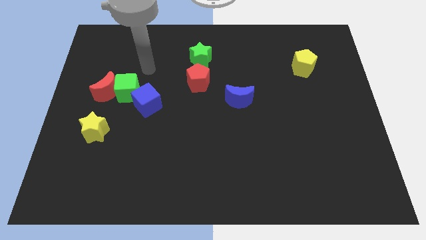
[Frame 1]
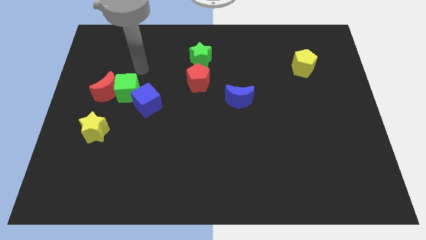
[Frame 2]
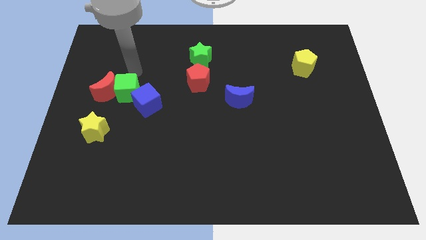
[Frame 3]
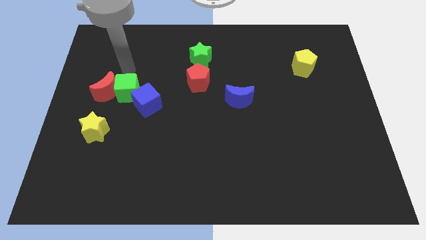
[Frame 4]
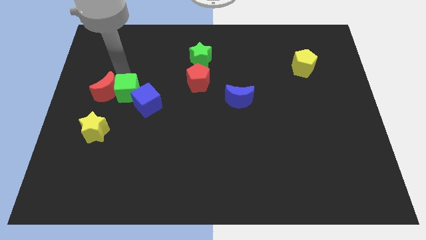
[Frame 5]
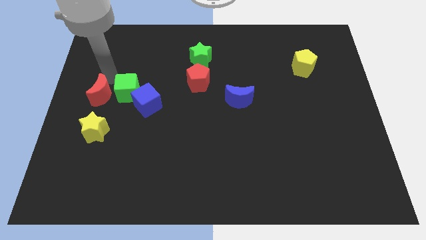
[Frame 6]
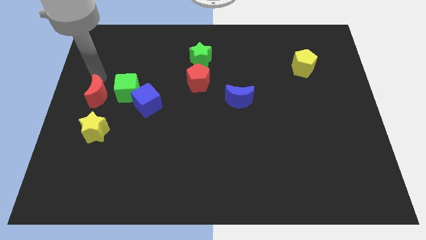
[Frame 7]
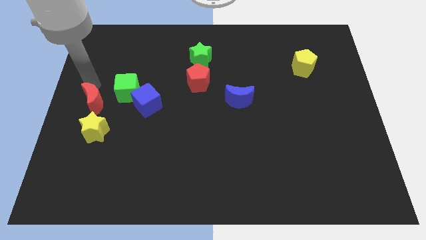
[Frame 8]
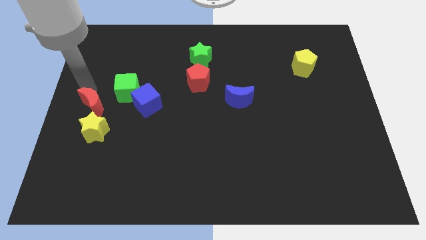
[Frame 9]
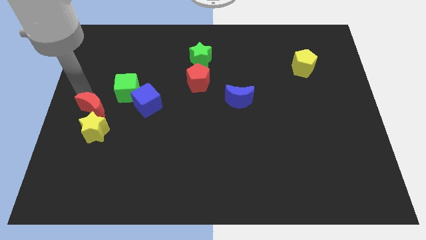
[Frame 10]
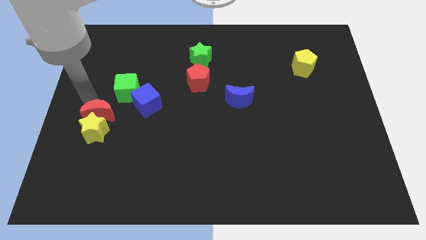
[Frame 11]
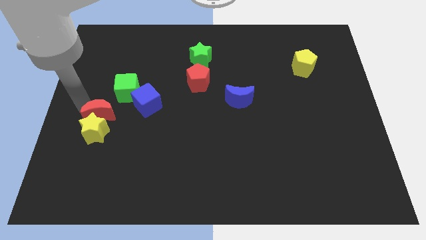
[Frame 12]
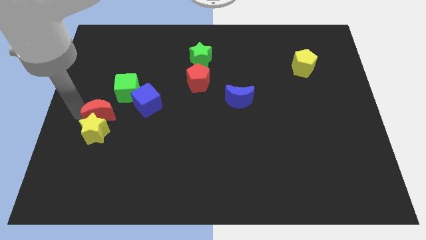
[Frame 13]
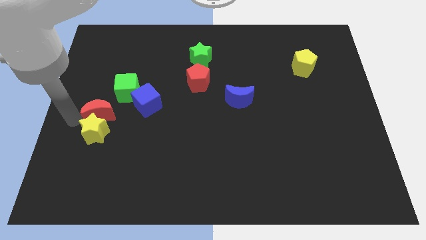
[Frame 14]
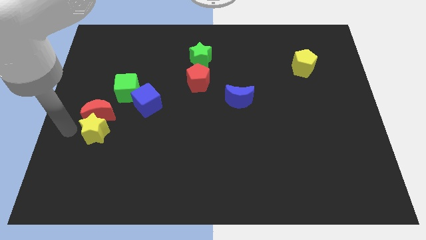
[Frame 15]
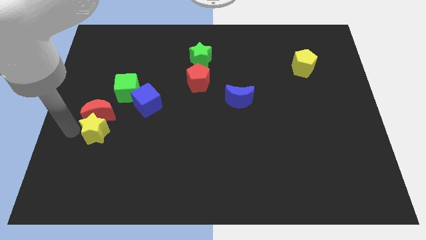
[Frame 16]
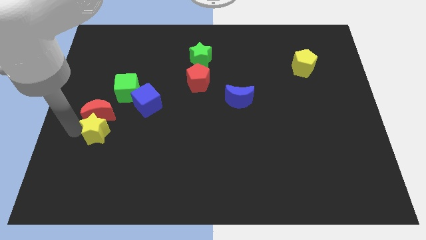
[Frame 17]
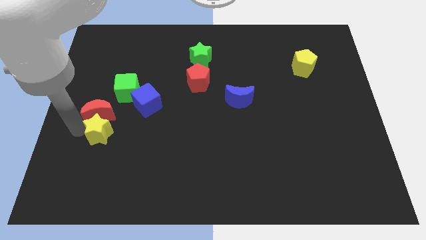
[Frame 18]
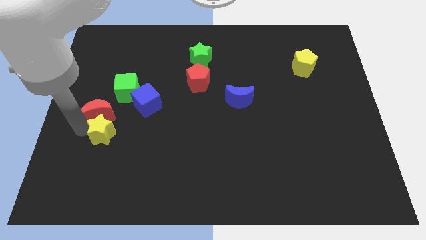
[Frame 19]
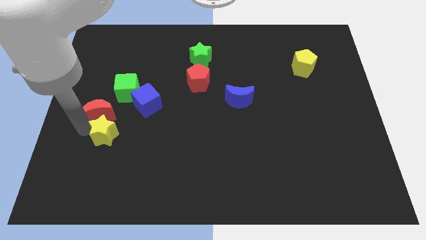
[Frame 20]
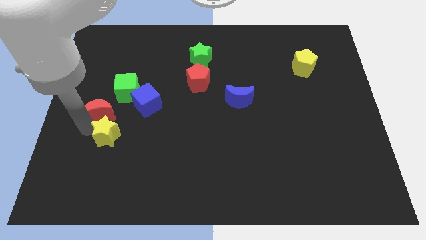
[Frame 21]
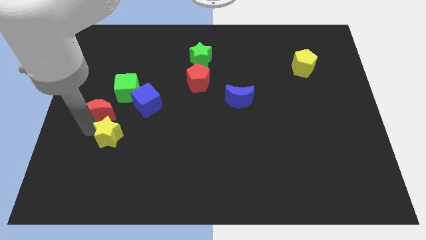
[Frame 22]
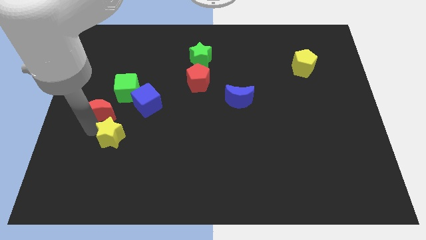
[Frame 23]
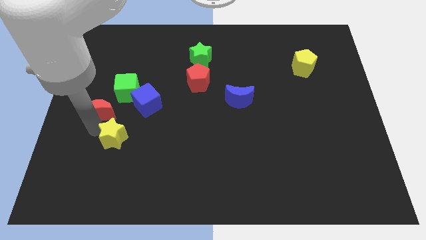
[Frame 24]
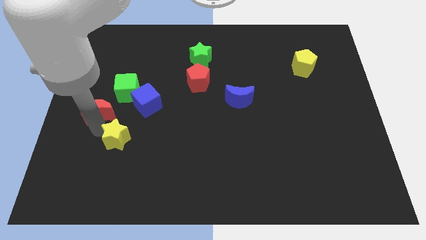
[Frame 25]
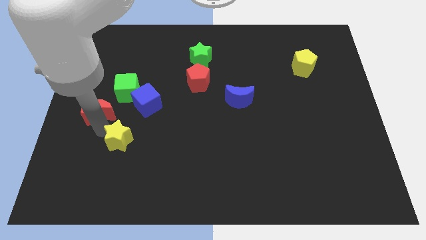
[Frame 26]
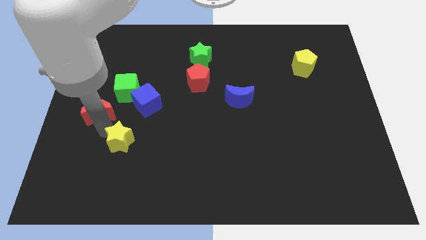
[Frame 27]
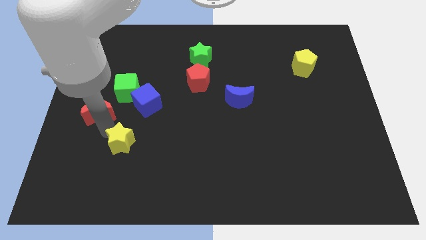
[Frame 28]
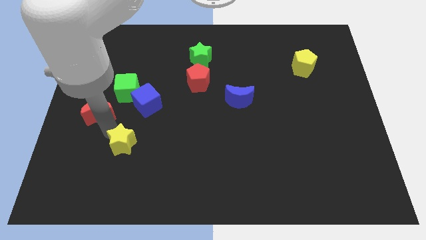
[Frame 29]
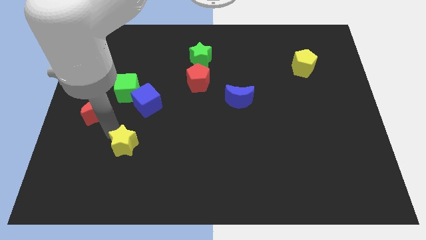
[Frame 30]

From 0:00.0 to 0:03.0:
slide the yellow star slightly to the right

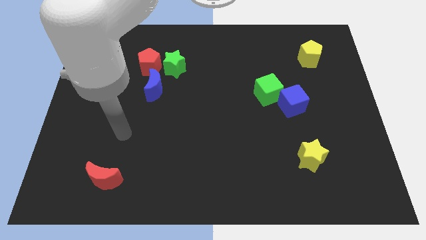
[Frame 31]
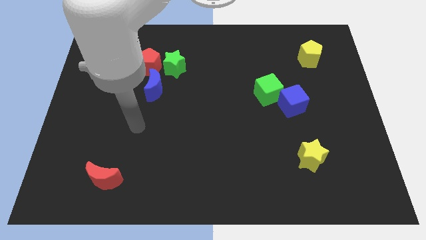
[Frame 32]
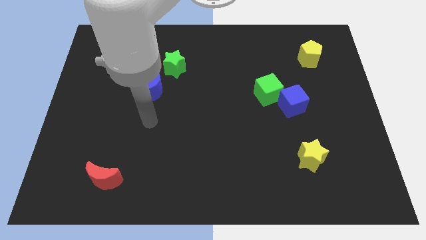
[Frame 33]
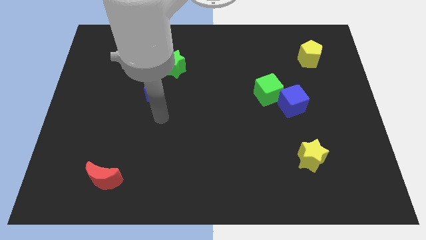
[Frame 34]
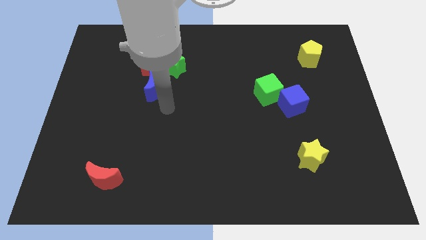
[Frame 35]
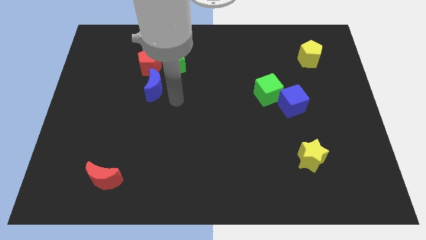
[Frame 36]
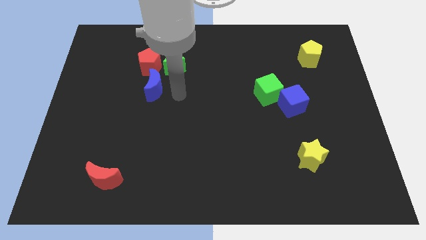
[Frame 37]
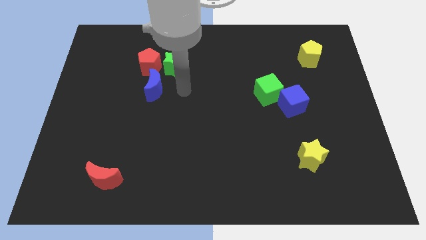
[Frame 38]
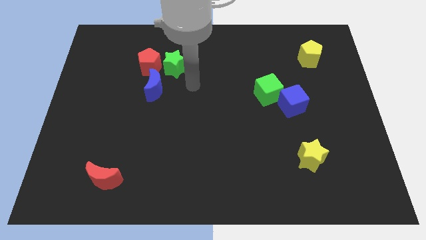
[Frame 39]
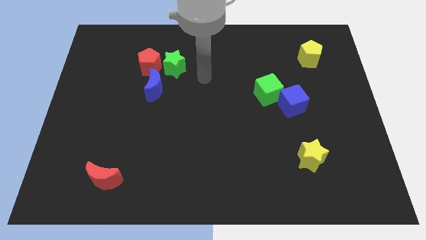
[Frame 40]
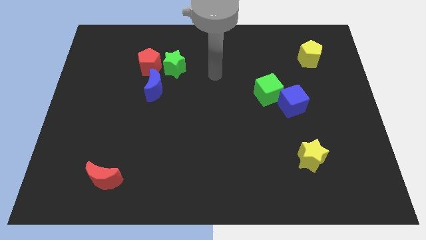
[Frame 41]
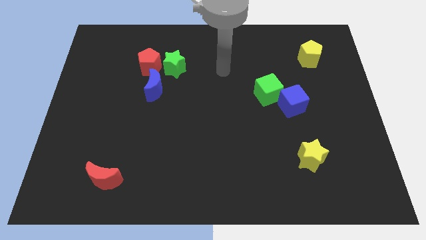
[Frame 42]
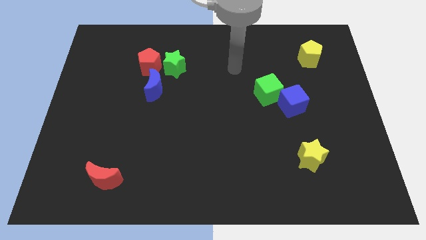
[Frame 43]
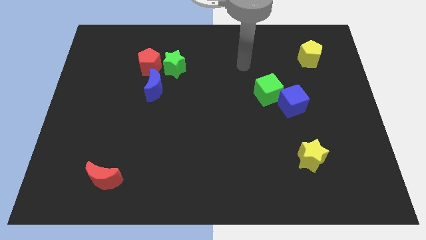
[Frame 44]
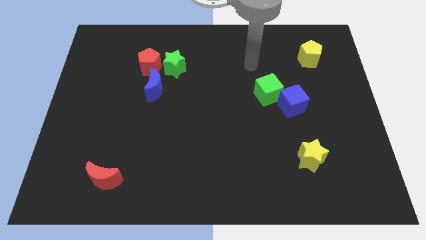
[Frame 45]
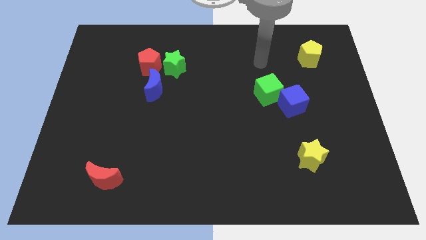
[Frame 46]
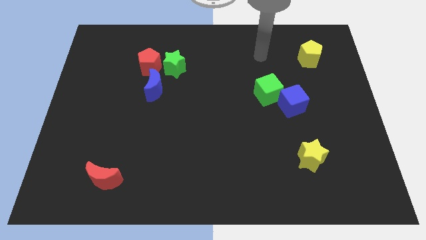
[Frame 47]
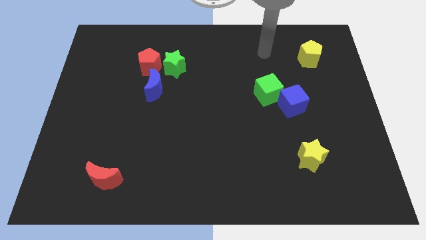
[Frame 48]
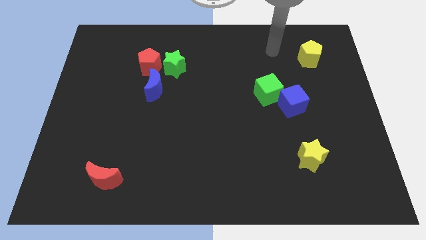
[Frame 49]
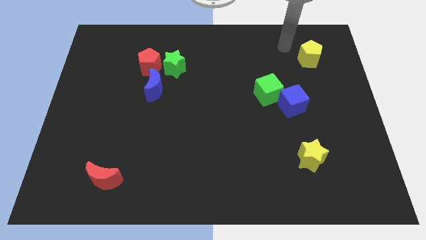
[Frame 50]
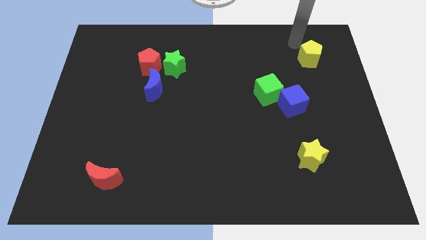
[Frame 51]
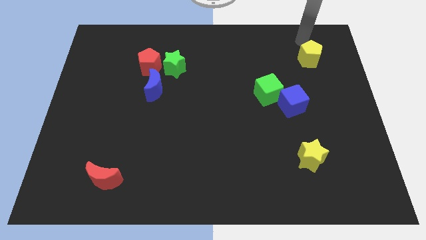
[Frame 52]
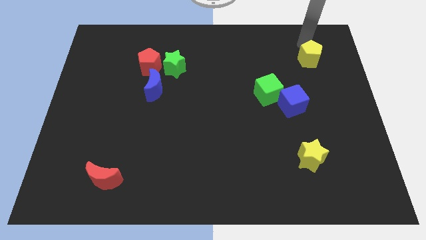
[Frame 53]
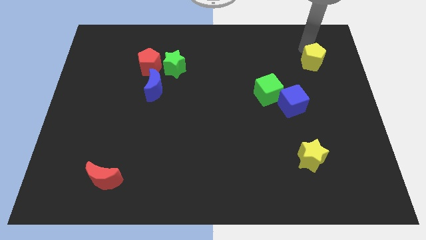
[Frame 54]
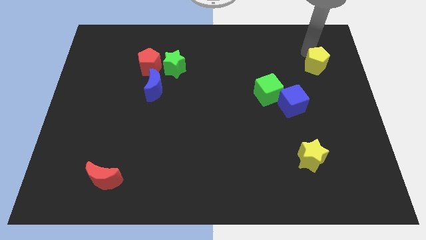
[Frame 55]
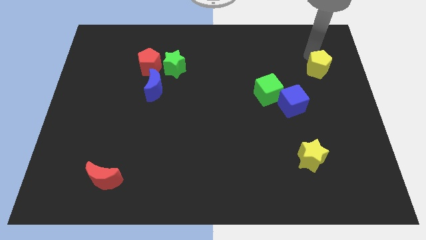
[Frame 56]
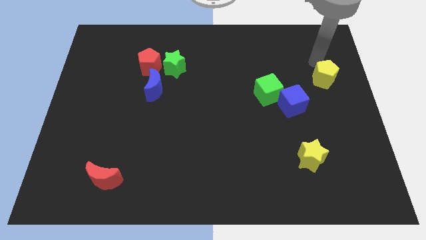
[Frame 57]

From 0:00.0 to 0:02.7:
slightly move the yellow pentagon down

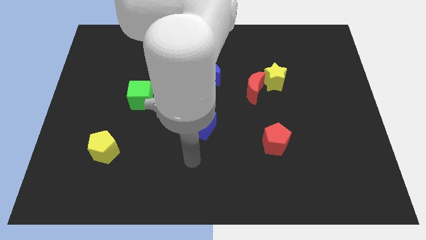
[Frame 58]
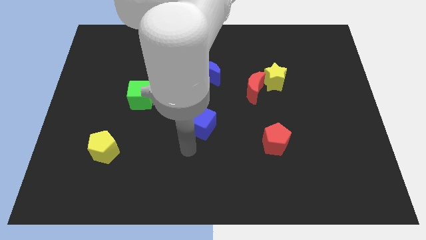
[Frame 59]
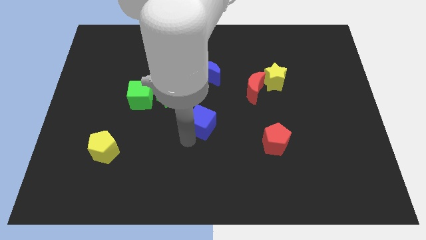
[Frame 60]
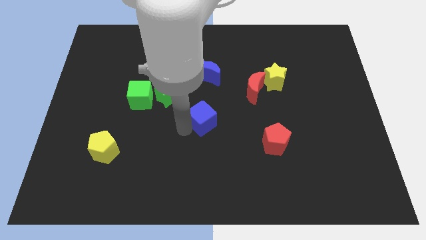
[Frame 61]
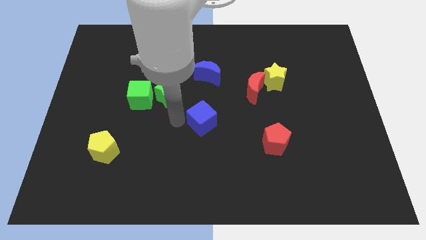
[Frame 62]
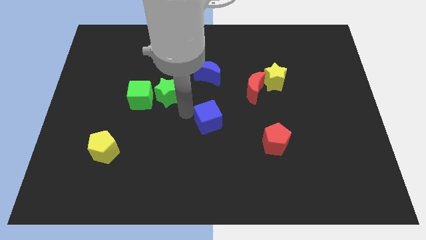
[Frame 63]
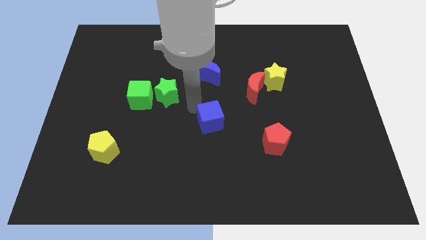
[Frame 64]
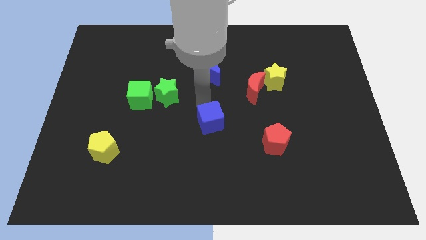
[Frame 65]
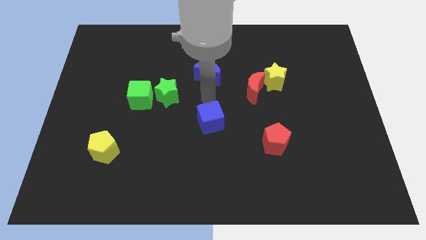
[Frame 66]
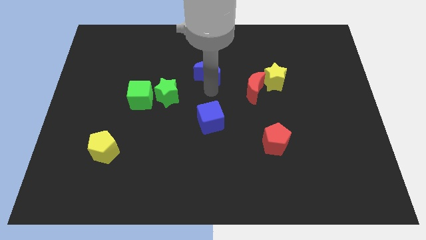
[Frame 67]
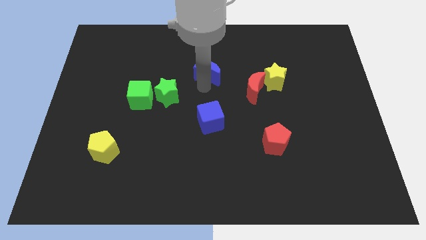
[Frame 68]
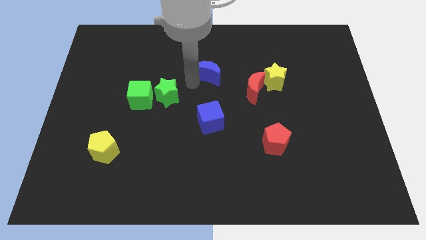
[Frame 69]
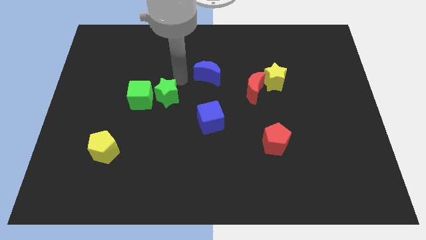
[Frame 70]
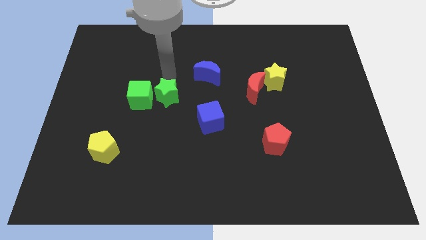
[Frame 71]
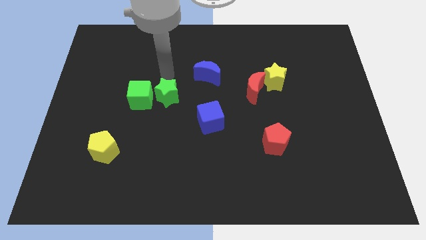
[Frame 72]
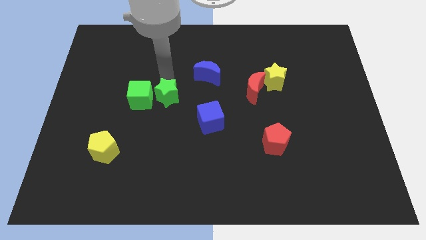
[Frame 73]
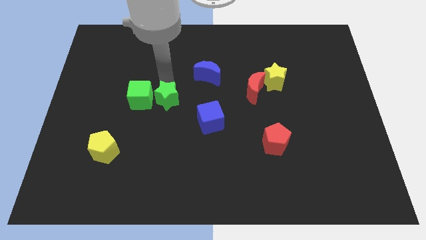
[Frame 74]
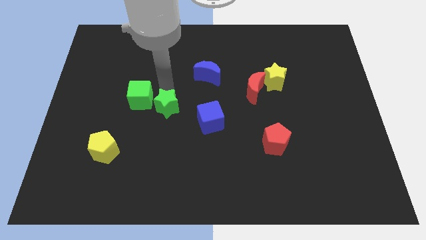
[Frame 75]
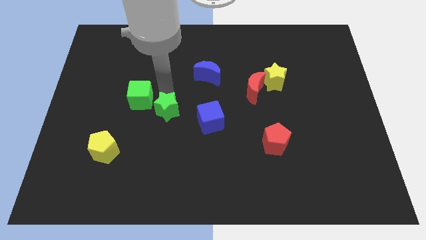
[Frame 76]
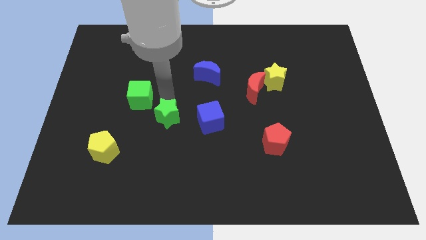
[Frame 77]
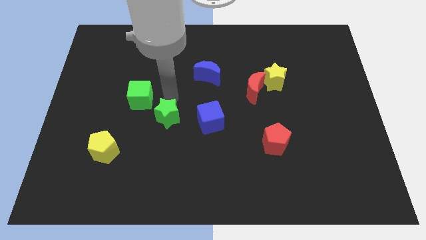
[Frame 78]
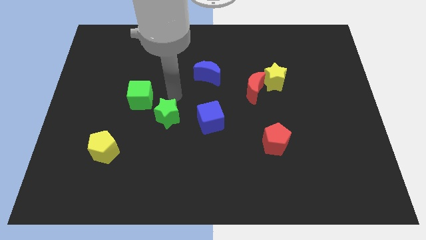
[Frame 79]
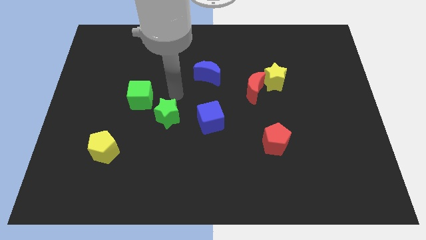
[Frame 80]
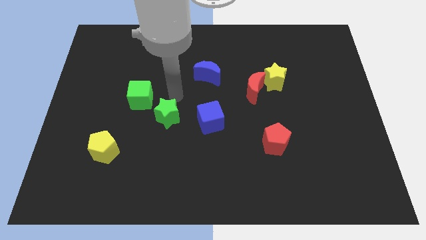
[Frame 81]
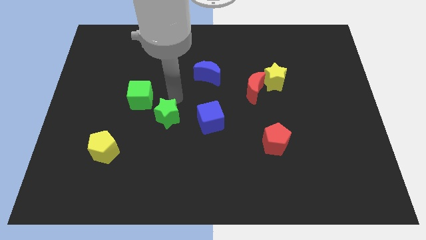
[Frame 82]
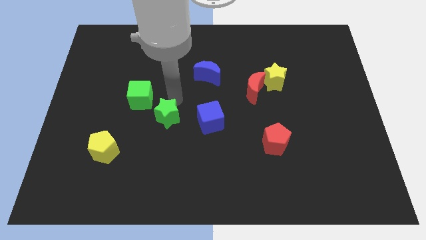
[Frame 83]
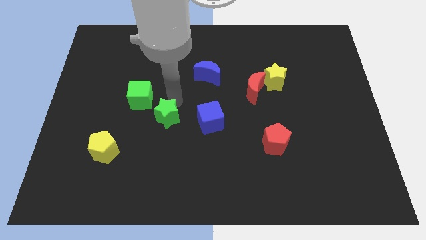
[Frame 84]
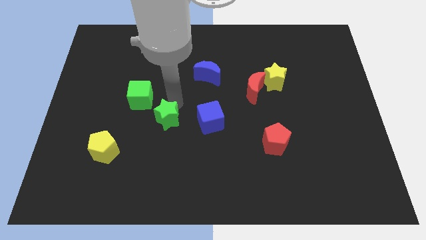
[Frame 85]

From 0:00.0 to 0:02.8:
move the green star a little bit downwards
